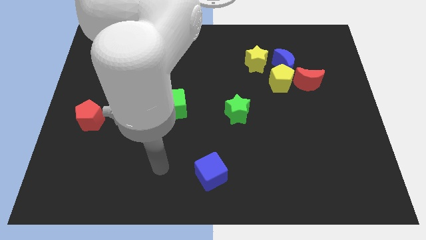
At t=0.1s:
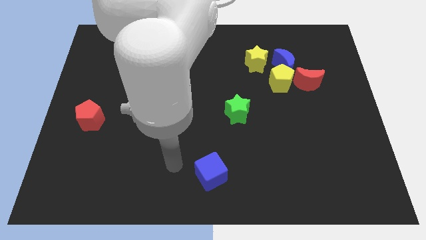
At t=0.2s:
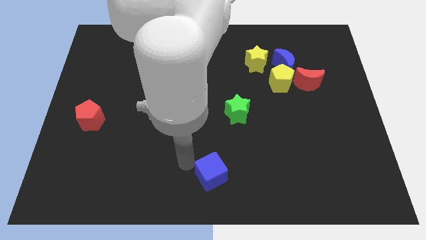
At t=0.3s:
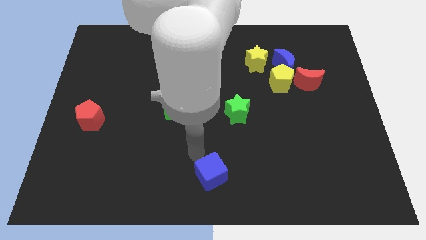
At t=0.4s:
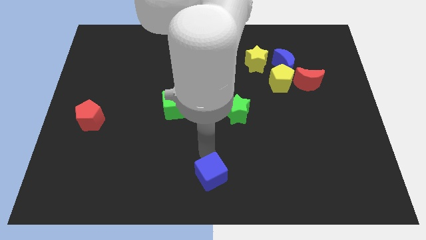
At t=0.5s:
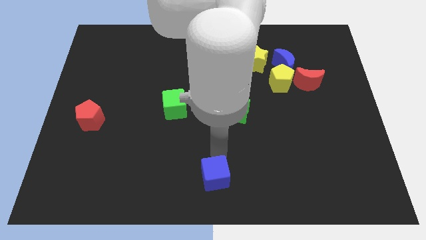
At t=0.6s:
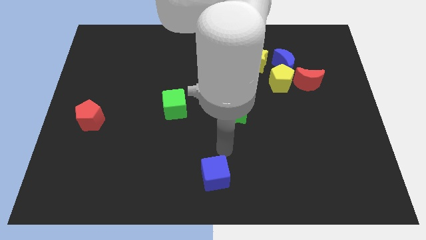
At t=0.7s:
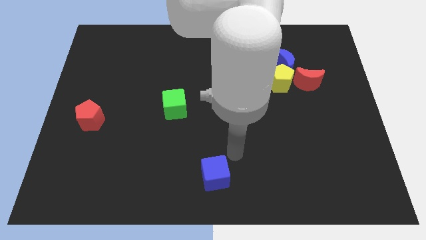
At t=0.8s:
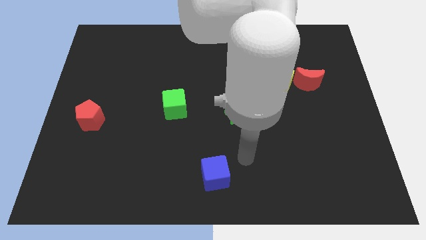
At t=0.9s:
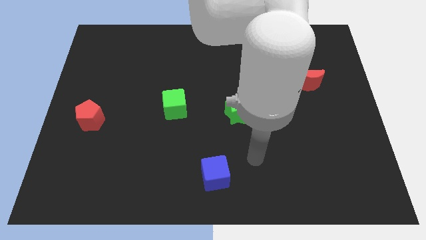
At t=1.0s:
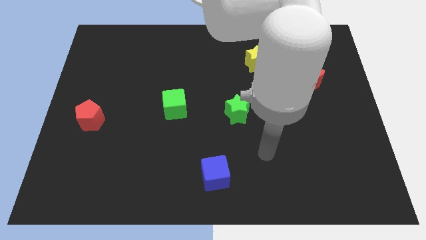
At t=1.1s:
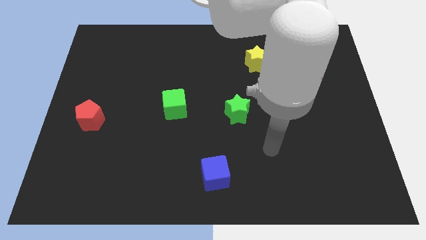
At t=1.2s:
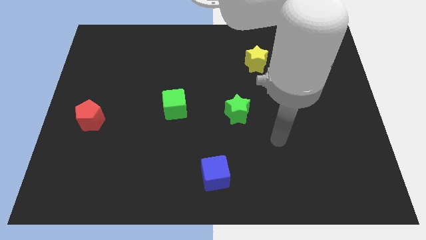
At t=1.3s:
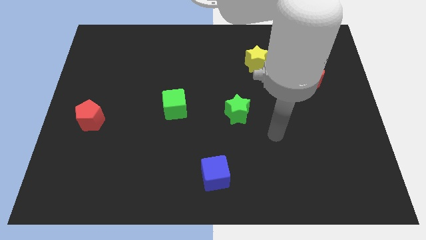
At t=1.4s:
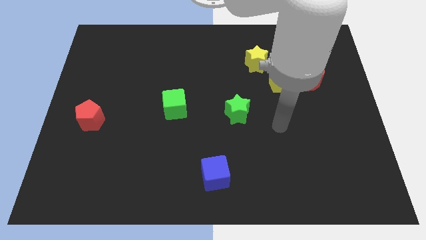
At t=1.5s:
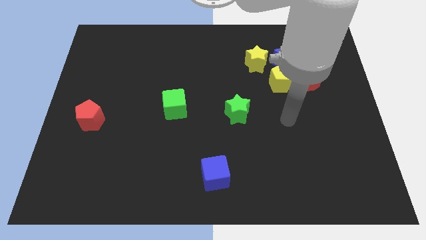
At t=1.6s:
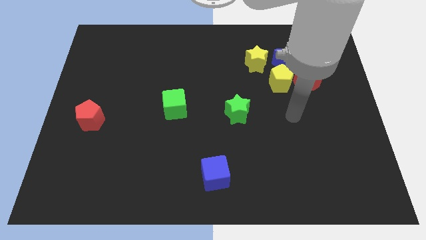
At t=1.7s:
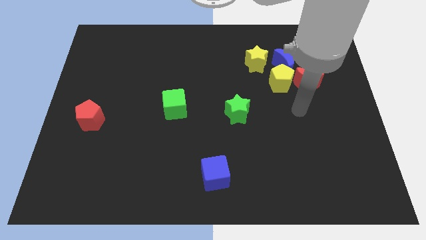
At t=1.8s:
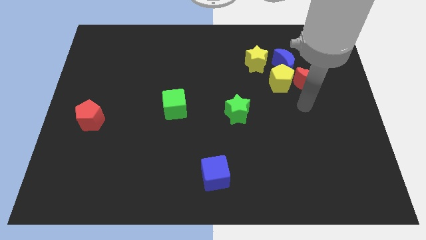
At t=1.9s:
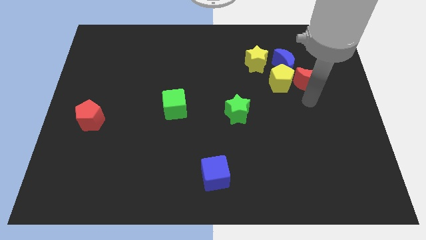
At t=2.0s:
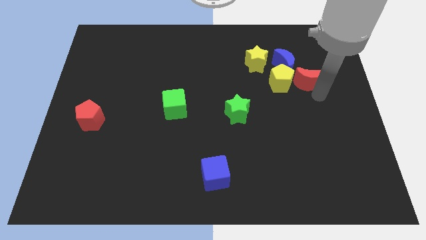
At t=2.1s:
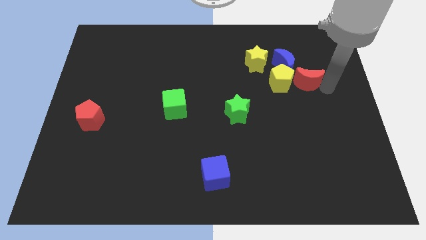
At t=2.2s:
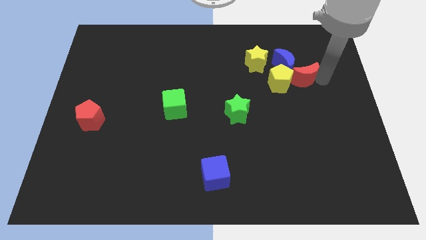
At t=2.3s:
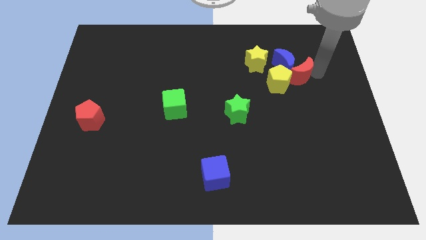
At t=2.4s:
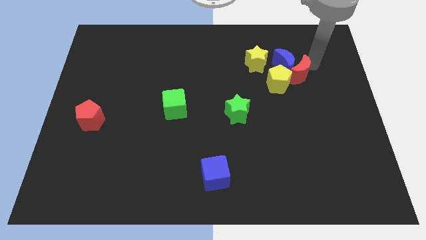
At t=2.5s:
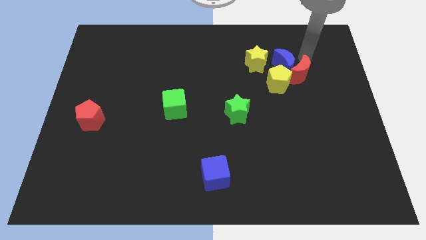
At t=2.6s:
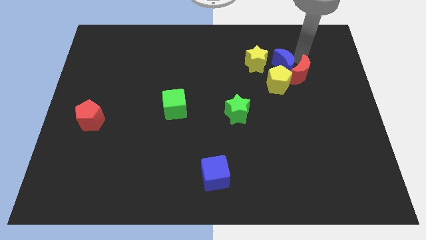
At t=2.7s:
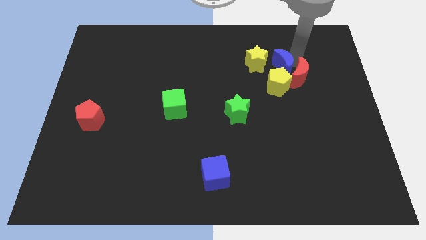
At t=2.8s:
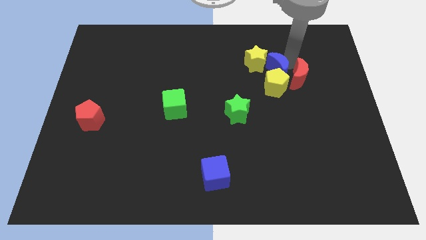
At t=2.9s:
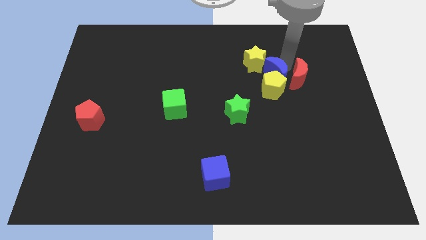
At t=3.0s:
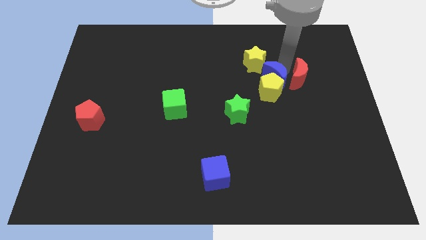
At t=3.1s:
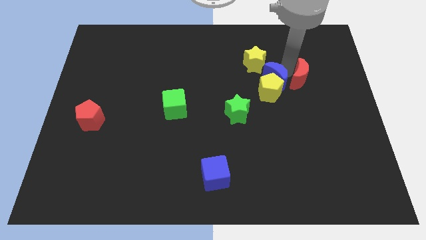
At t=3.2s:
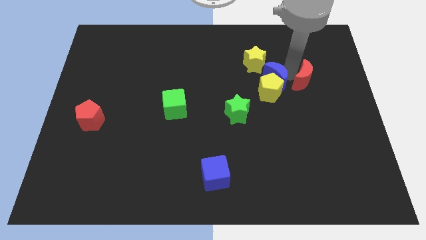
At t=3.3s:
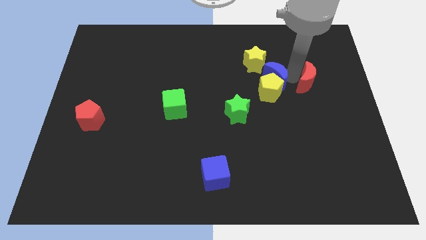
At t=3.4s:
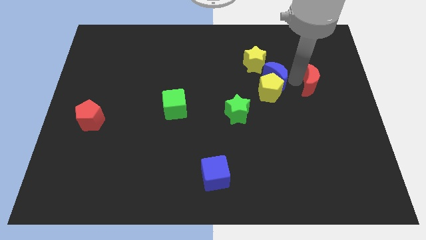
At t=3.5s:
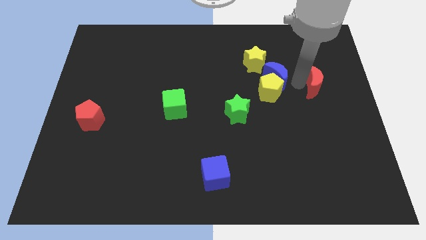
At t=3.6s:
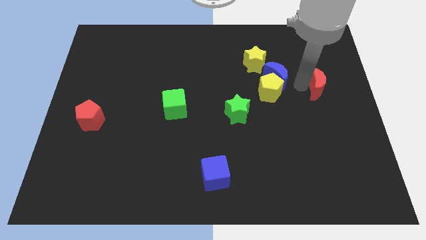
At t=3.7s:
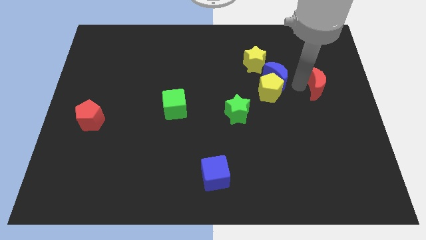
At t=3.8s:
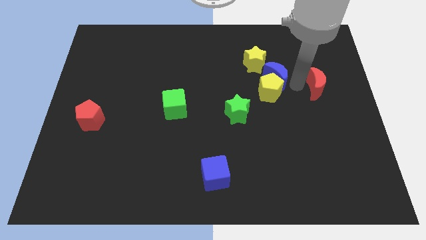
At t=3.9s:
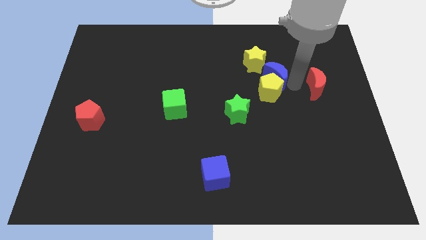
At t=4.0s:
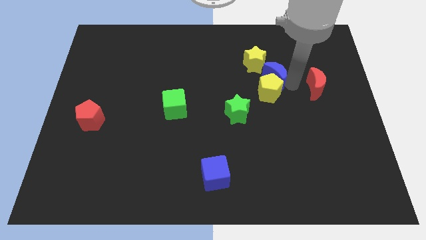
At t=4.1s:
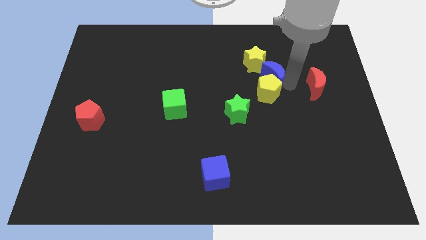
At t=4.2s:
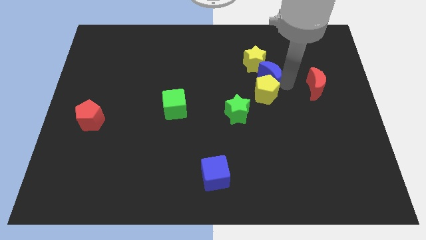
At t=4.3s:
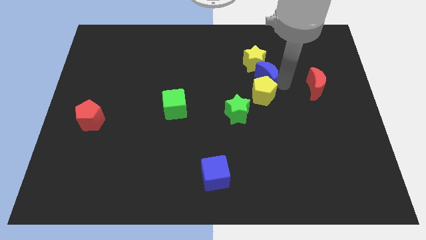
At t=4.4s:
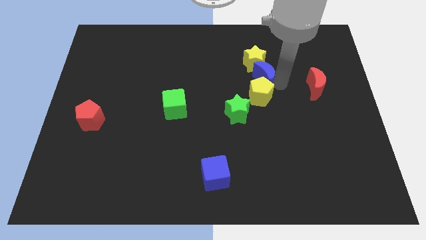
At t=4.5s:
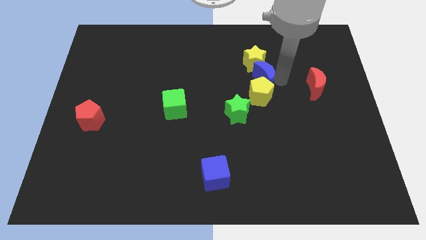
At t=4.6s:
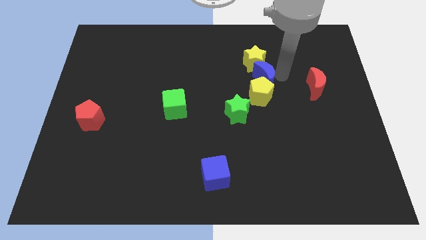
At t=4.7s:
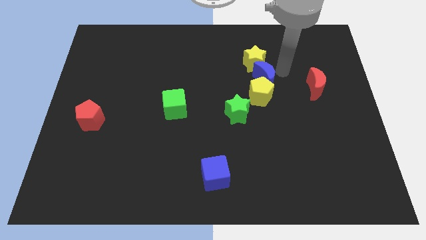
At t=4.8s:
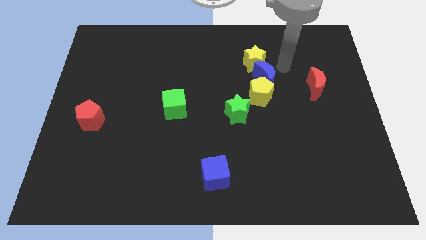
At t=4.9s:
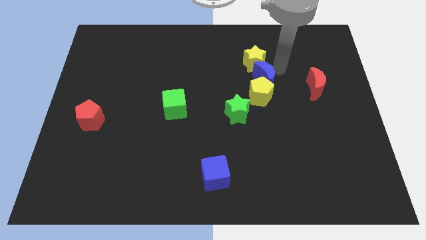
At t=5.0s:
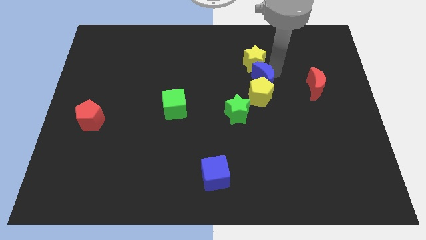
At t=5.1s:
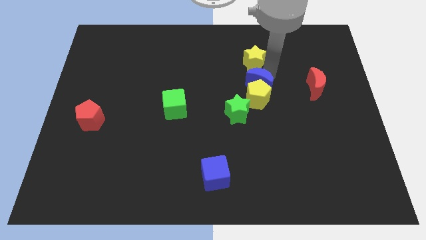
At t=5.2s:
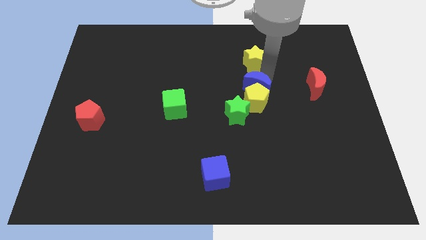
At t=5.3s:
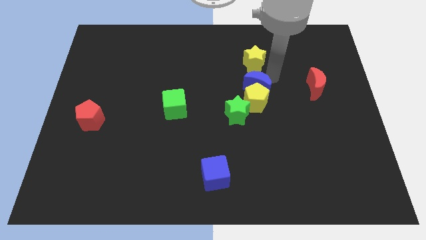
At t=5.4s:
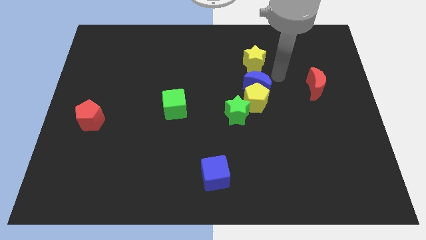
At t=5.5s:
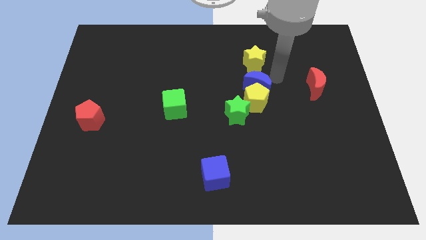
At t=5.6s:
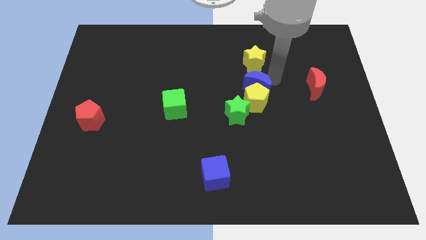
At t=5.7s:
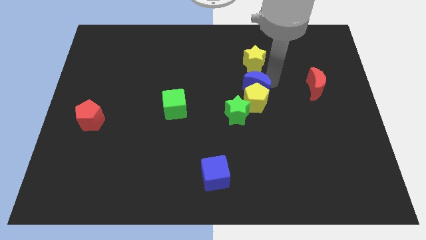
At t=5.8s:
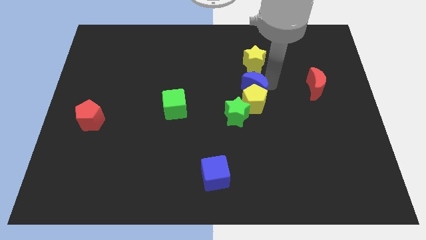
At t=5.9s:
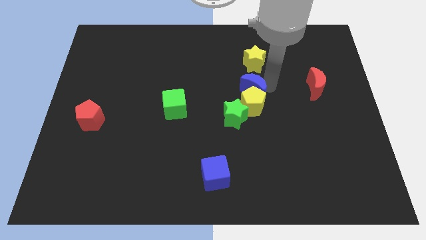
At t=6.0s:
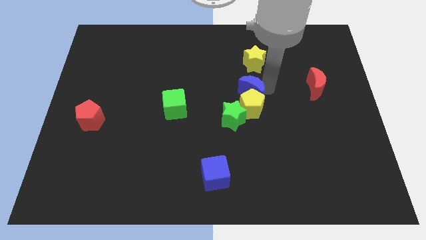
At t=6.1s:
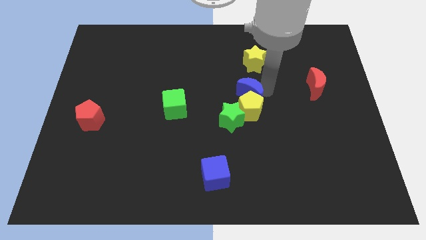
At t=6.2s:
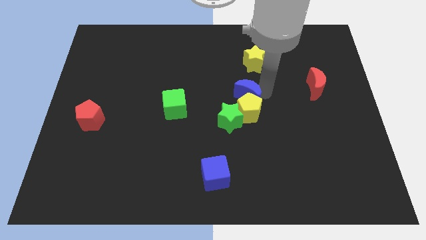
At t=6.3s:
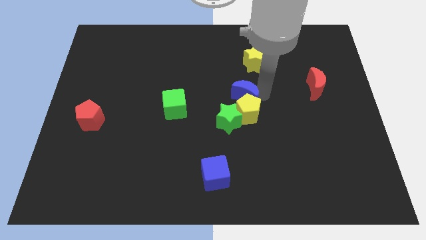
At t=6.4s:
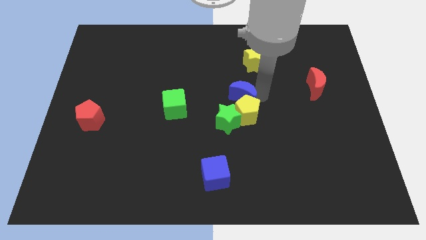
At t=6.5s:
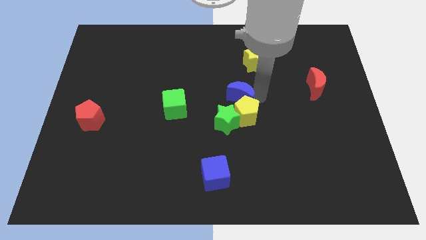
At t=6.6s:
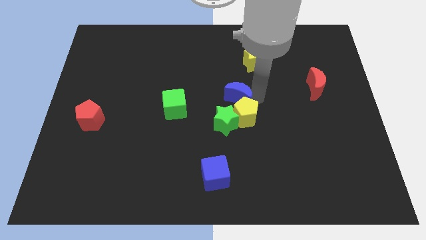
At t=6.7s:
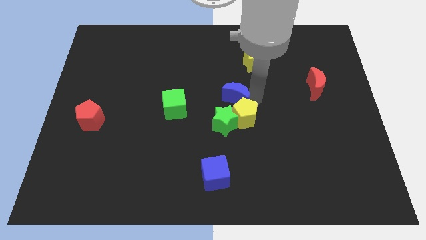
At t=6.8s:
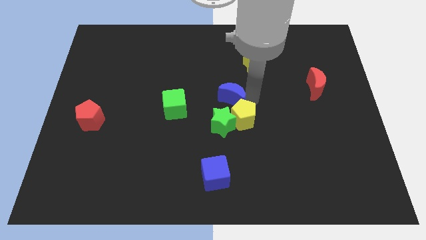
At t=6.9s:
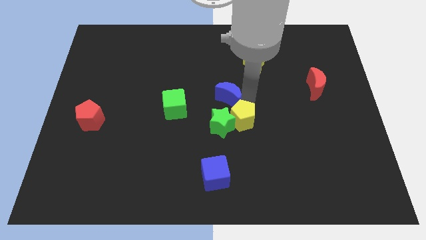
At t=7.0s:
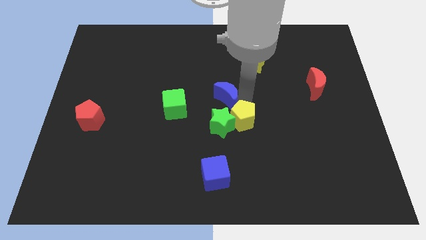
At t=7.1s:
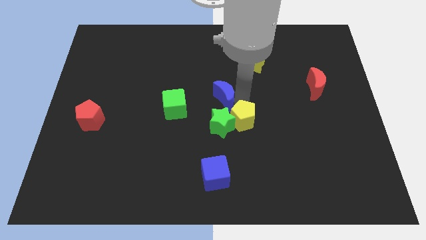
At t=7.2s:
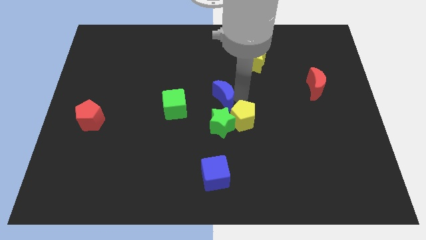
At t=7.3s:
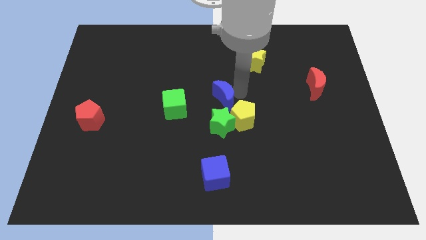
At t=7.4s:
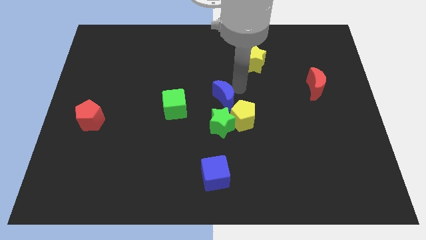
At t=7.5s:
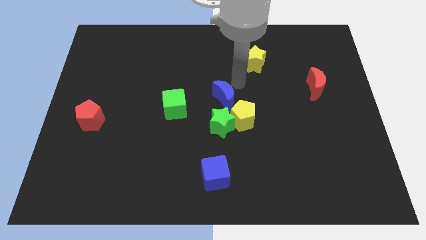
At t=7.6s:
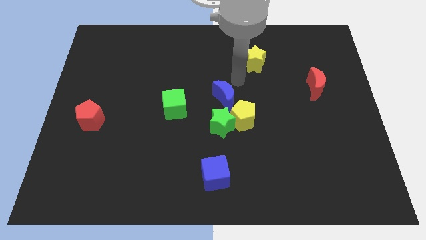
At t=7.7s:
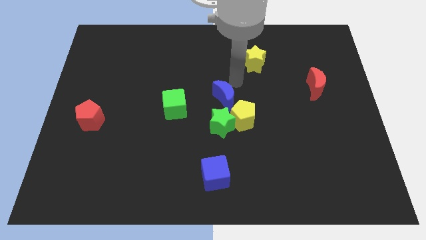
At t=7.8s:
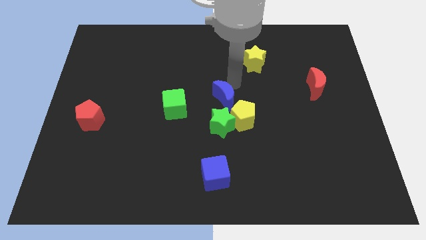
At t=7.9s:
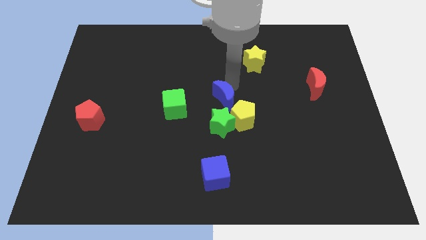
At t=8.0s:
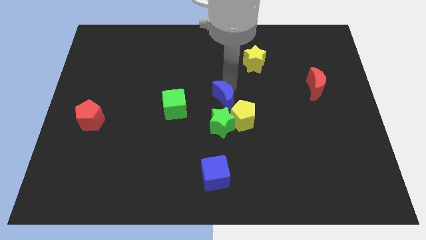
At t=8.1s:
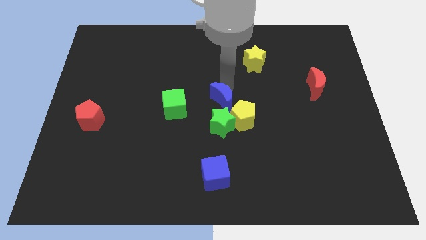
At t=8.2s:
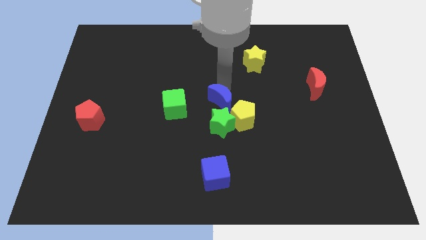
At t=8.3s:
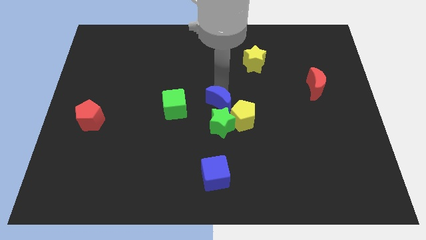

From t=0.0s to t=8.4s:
move the blue moon diagonally downwards and left
